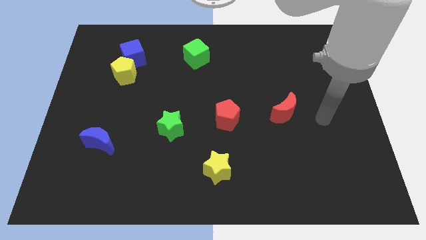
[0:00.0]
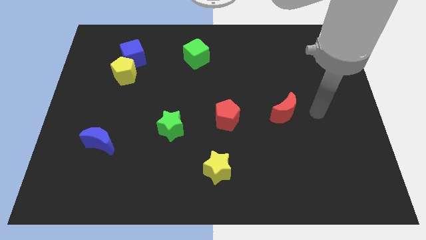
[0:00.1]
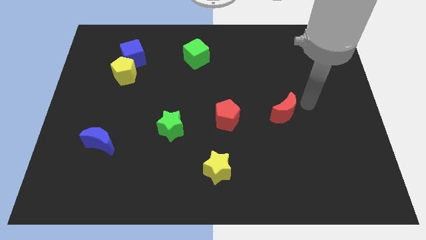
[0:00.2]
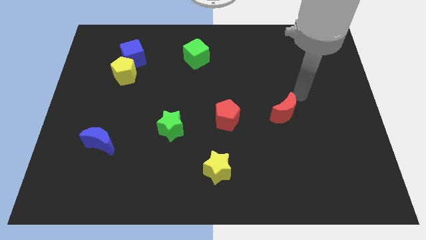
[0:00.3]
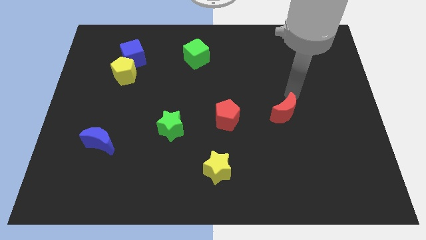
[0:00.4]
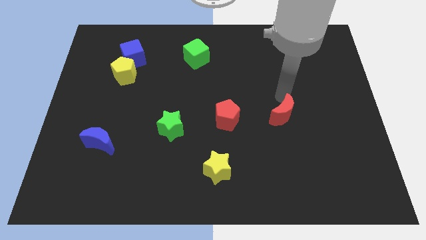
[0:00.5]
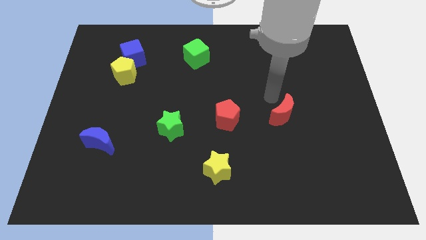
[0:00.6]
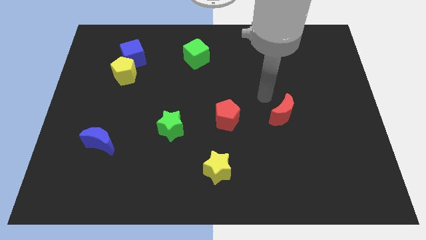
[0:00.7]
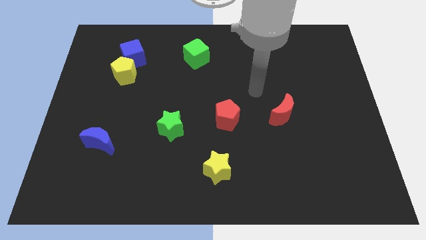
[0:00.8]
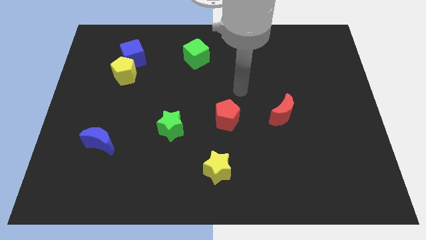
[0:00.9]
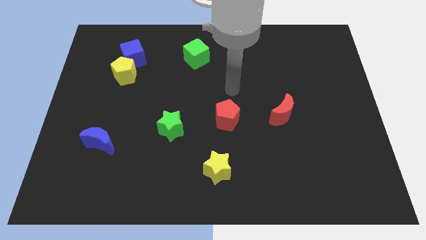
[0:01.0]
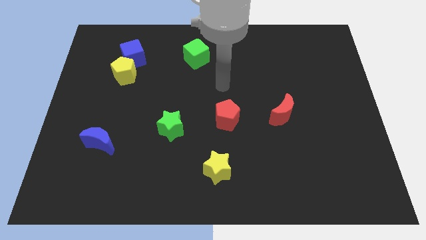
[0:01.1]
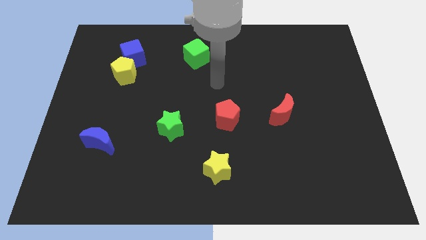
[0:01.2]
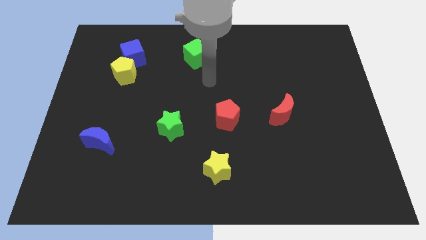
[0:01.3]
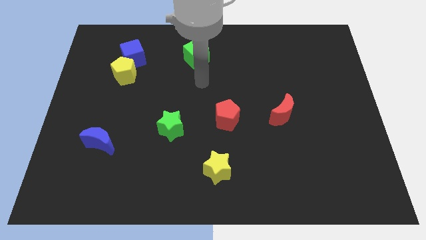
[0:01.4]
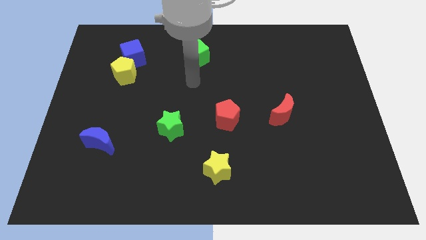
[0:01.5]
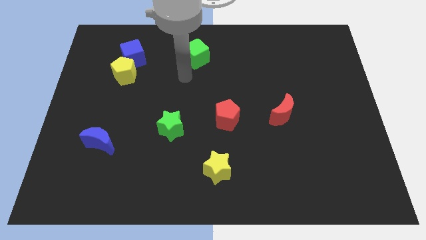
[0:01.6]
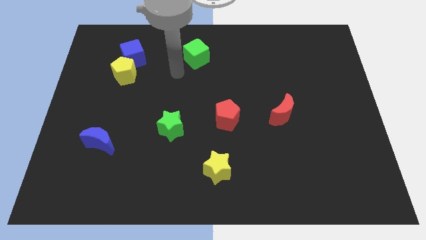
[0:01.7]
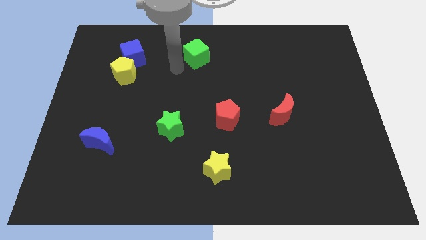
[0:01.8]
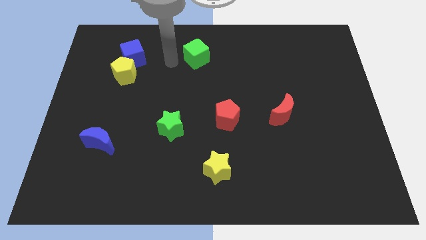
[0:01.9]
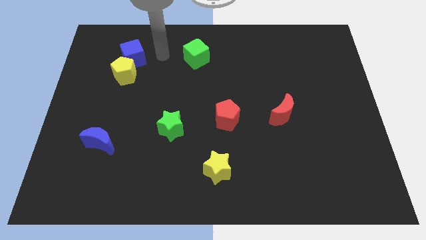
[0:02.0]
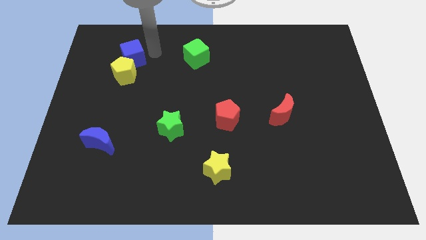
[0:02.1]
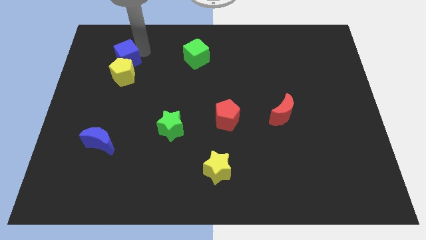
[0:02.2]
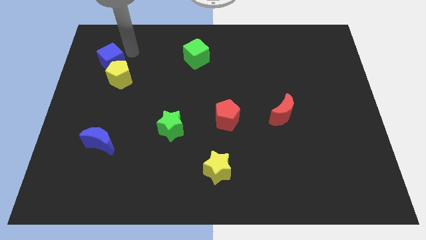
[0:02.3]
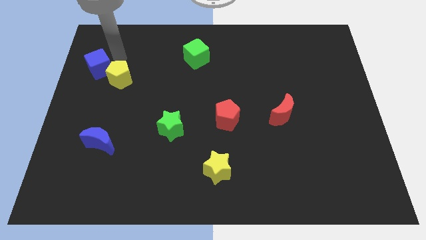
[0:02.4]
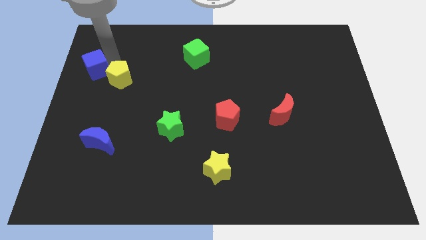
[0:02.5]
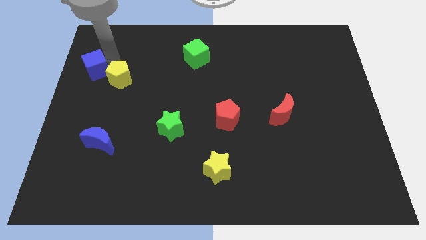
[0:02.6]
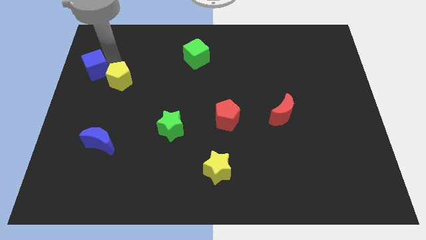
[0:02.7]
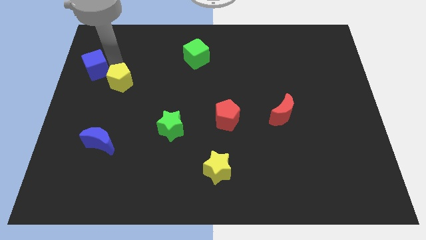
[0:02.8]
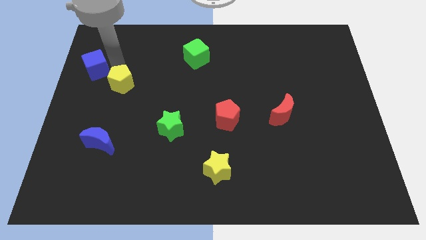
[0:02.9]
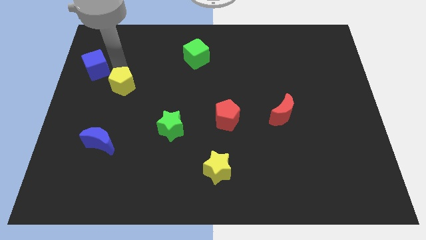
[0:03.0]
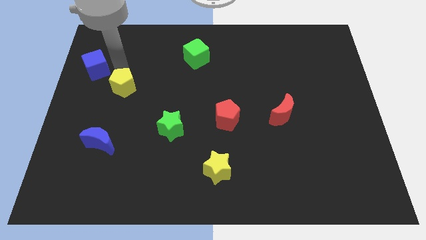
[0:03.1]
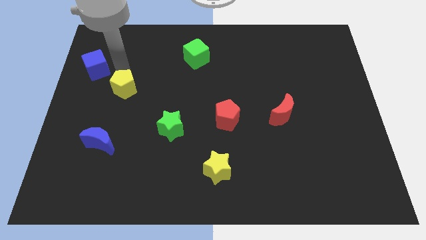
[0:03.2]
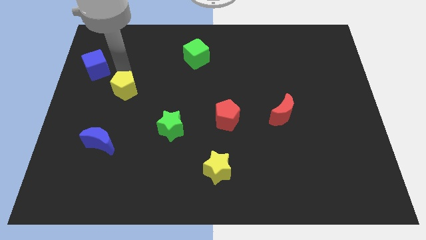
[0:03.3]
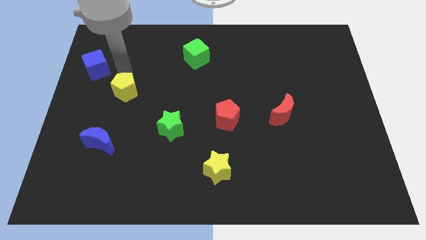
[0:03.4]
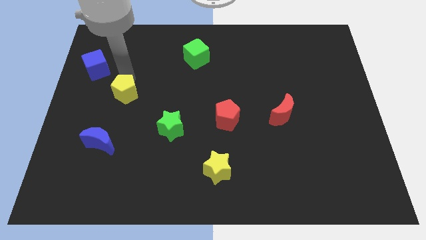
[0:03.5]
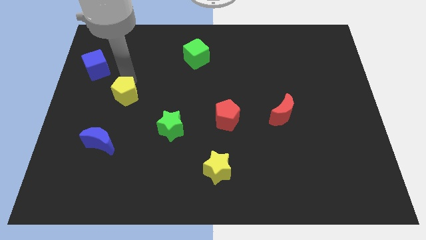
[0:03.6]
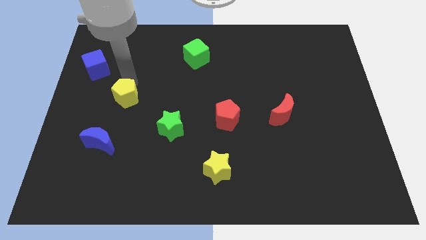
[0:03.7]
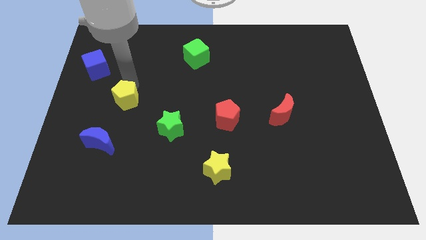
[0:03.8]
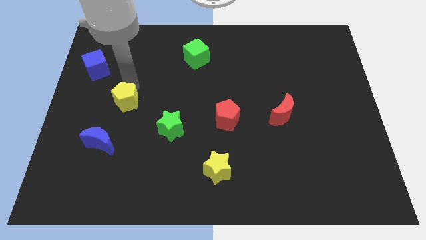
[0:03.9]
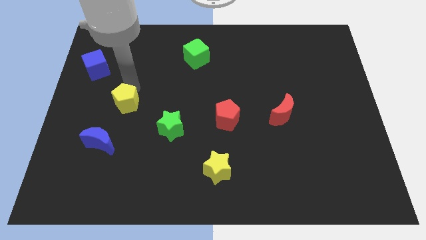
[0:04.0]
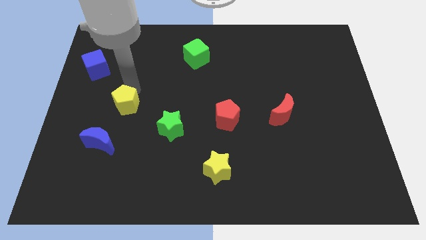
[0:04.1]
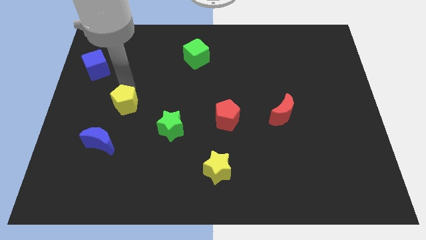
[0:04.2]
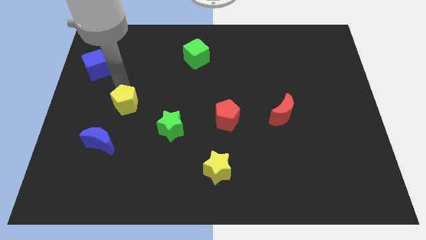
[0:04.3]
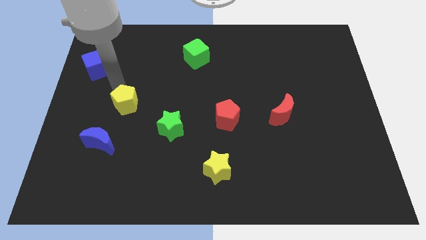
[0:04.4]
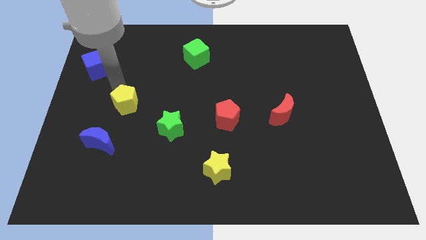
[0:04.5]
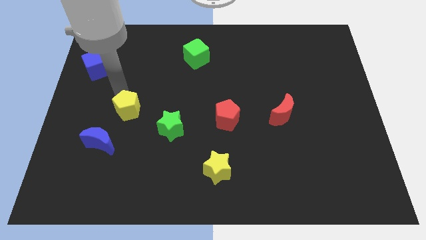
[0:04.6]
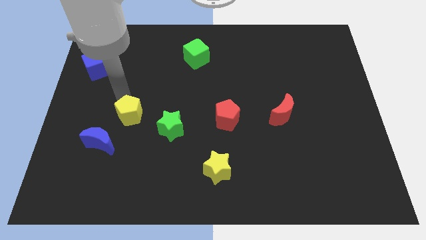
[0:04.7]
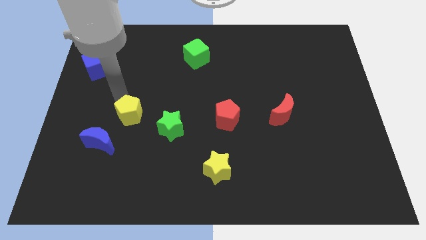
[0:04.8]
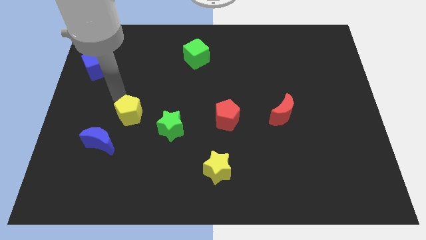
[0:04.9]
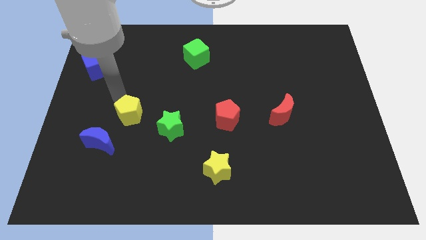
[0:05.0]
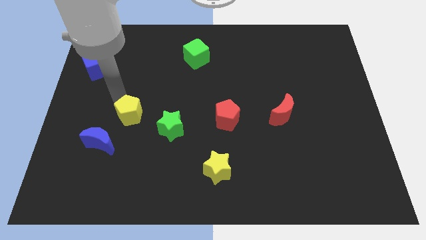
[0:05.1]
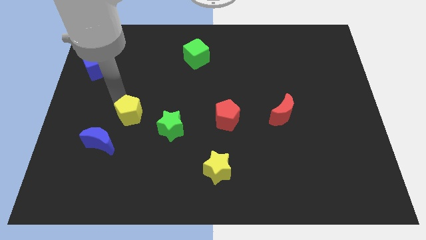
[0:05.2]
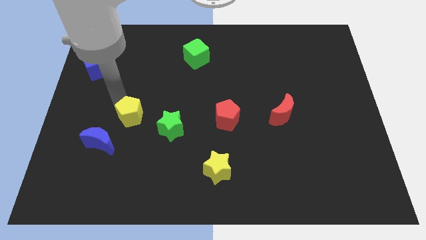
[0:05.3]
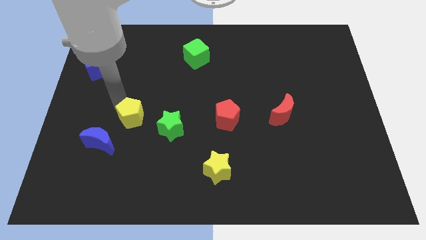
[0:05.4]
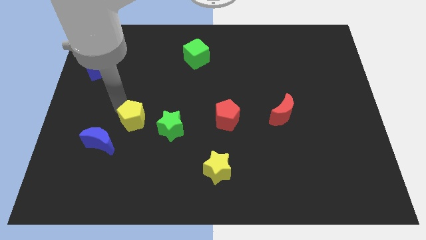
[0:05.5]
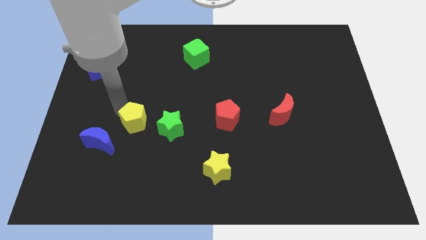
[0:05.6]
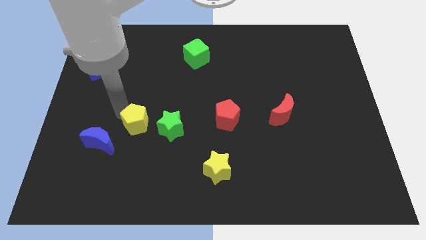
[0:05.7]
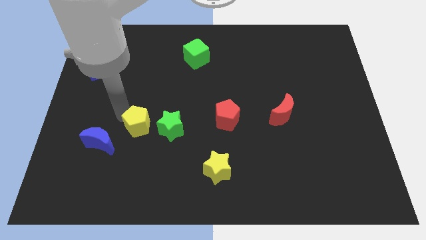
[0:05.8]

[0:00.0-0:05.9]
put the yellow pentagon to the right of the blue moon

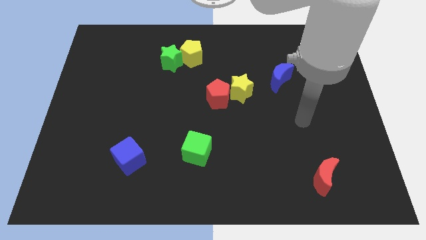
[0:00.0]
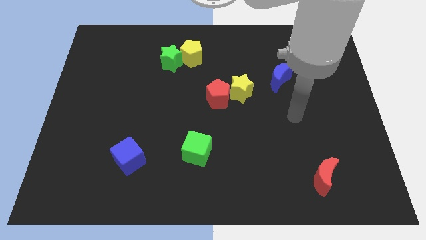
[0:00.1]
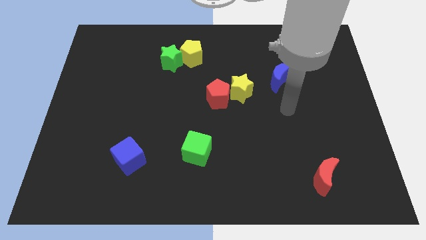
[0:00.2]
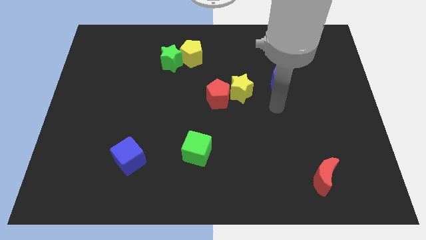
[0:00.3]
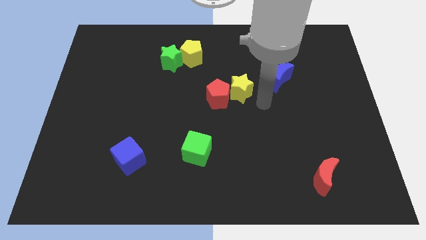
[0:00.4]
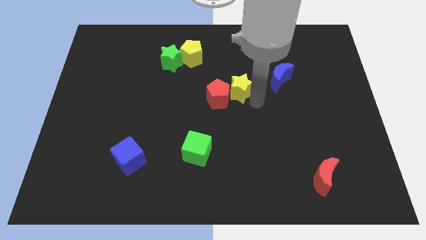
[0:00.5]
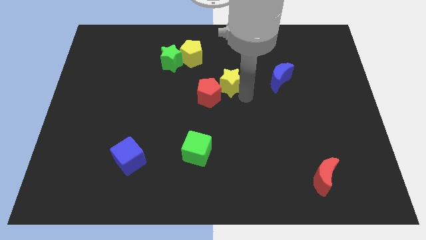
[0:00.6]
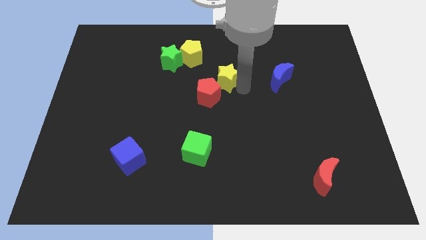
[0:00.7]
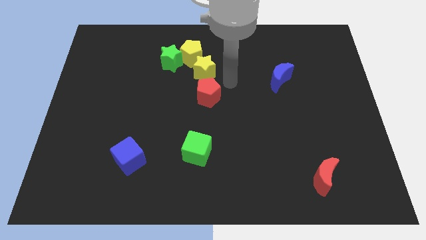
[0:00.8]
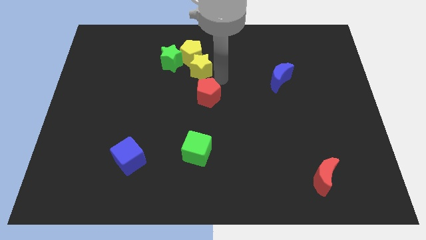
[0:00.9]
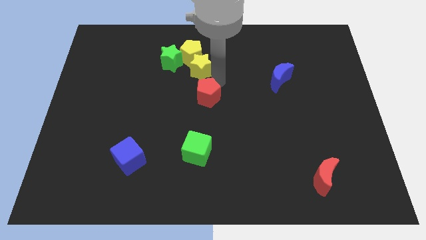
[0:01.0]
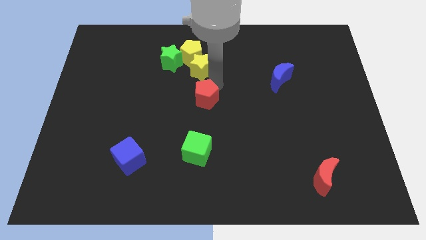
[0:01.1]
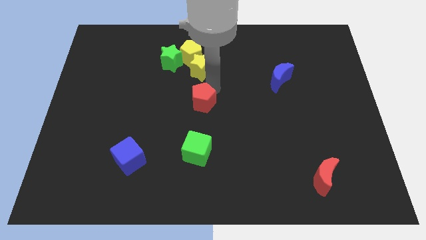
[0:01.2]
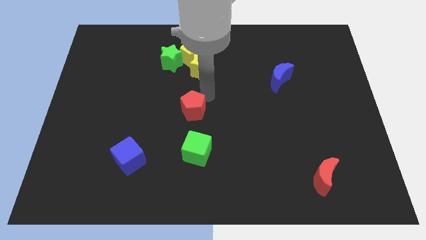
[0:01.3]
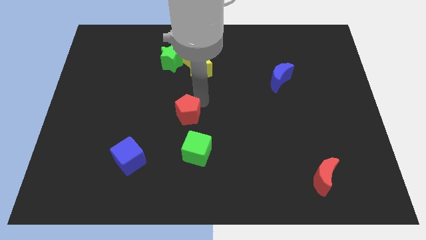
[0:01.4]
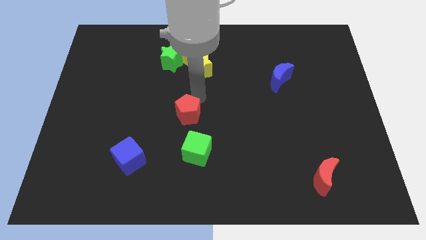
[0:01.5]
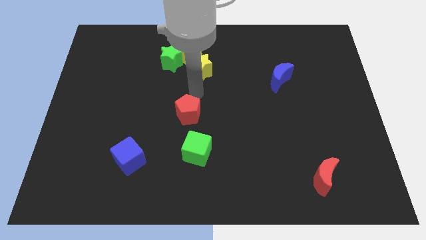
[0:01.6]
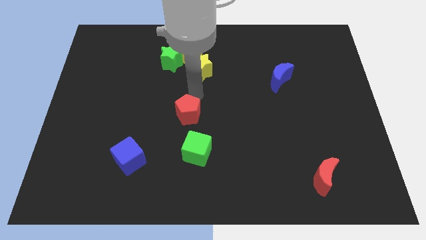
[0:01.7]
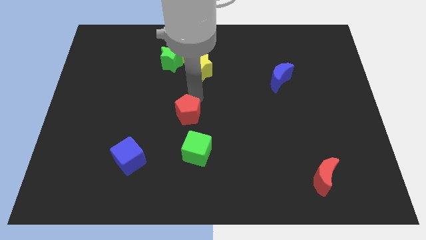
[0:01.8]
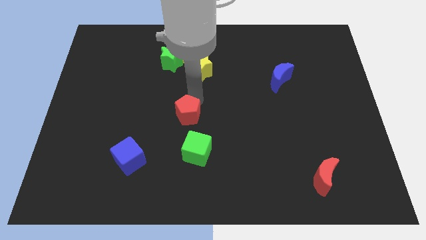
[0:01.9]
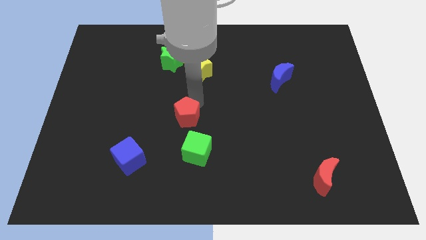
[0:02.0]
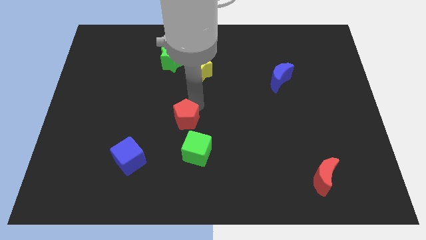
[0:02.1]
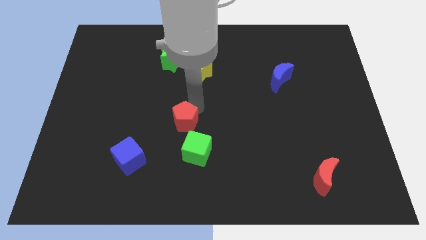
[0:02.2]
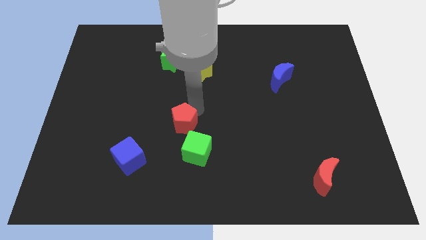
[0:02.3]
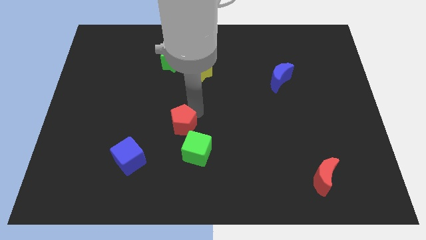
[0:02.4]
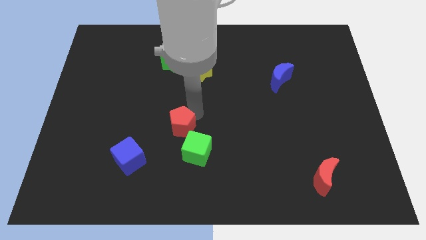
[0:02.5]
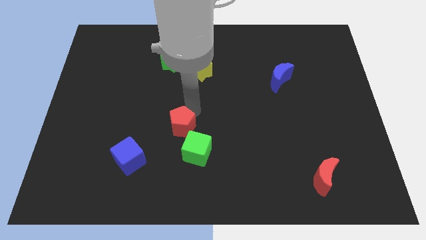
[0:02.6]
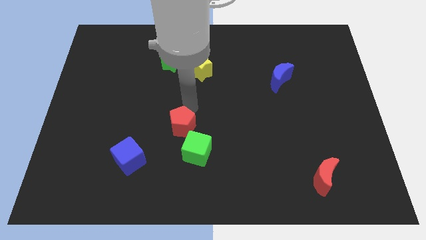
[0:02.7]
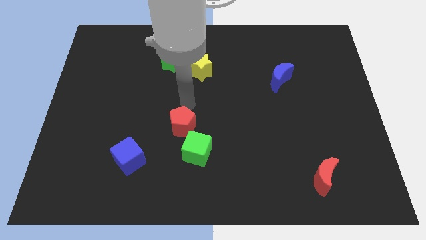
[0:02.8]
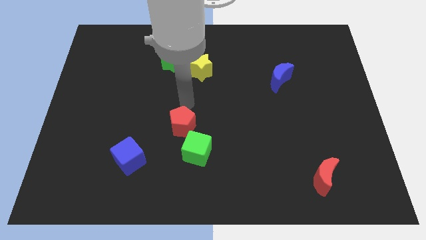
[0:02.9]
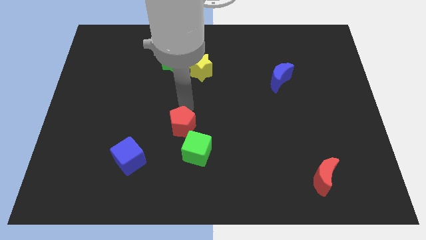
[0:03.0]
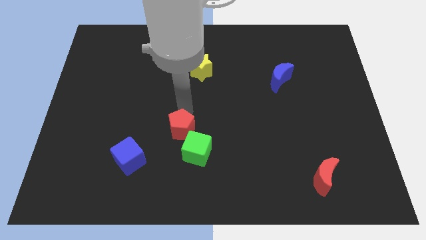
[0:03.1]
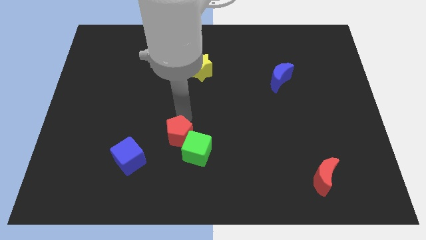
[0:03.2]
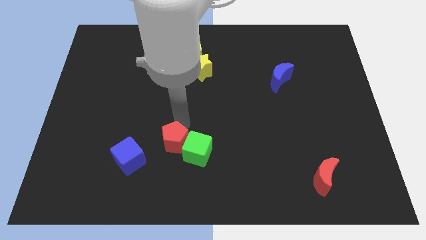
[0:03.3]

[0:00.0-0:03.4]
slide the red pentagon right of the blue cube
